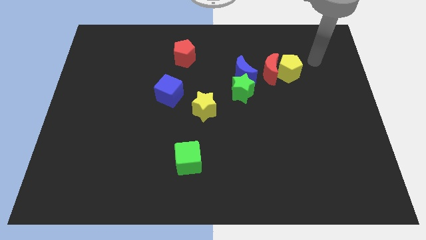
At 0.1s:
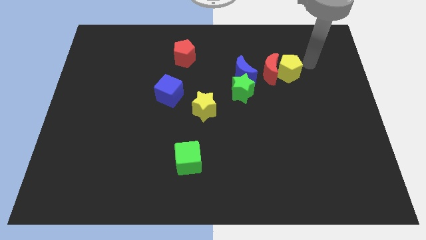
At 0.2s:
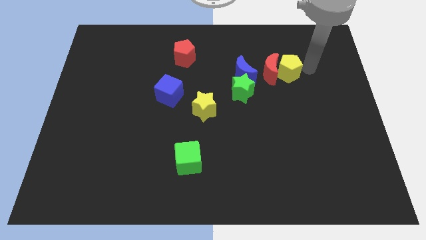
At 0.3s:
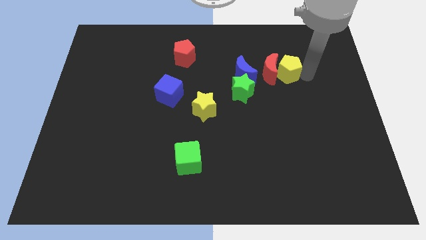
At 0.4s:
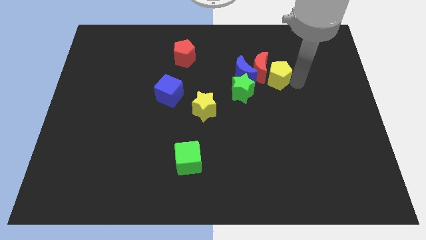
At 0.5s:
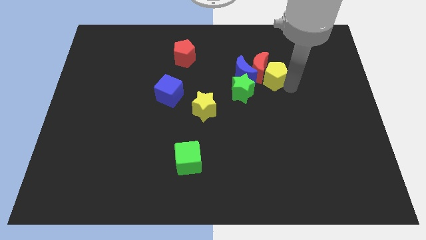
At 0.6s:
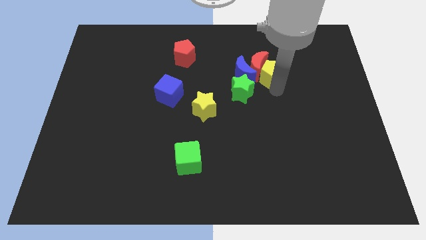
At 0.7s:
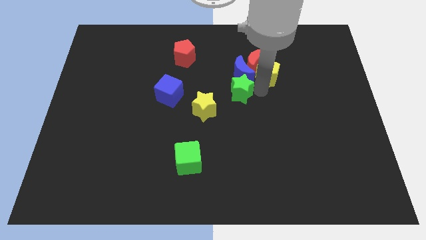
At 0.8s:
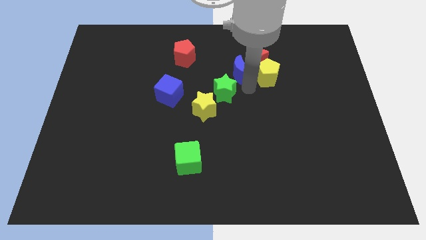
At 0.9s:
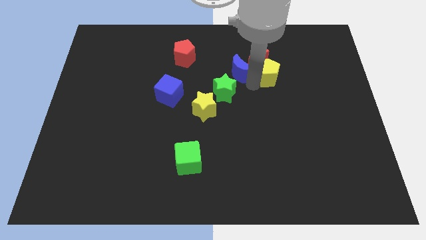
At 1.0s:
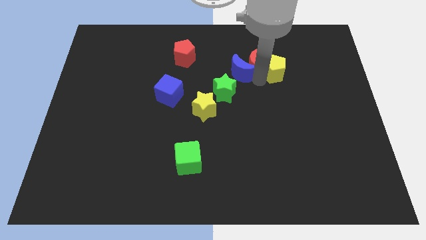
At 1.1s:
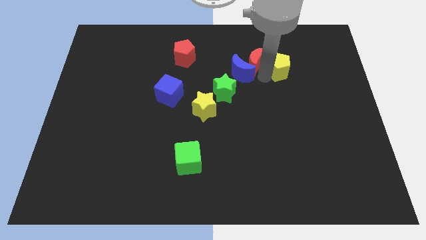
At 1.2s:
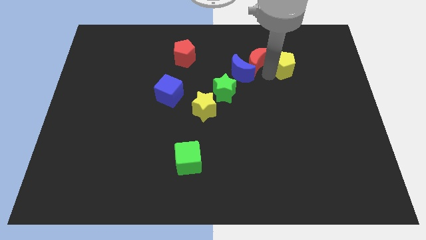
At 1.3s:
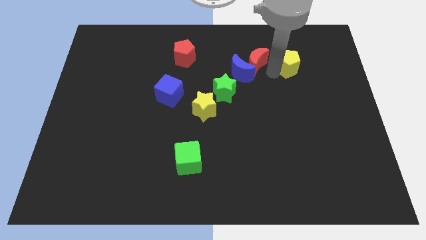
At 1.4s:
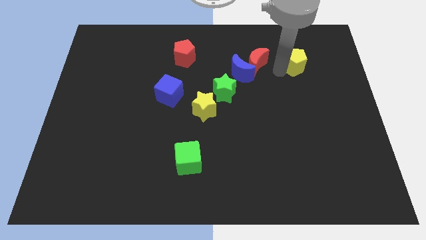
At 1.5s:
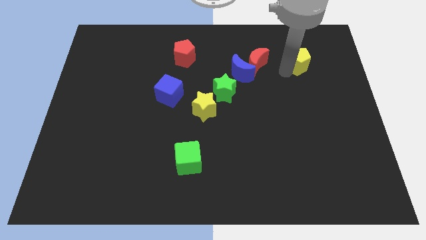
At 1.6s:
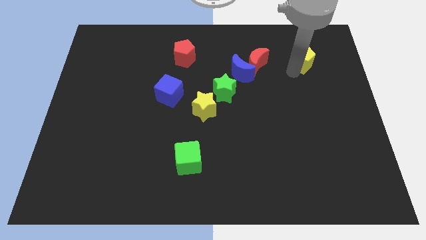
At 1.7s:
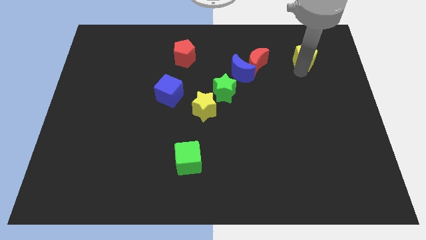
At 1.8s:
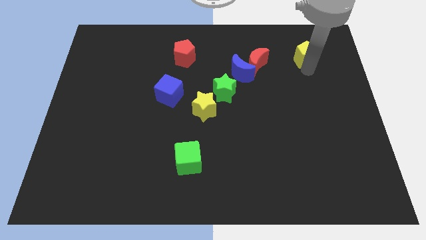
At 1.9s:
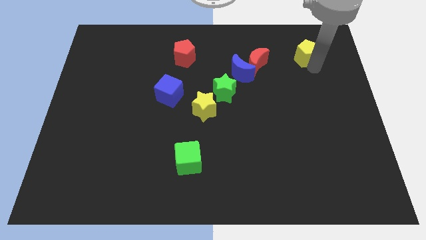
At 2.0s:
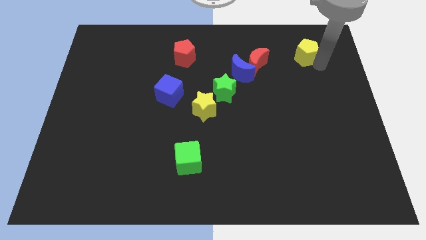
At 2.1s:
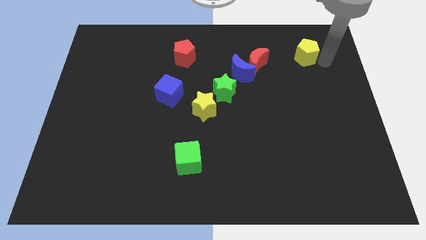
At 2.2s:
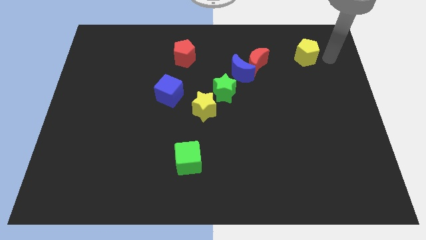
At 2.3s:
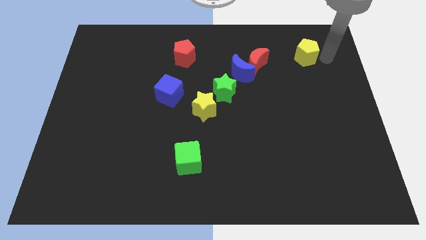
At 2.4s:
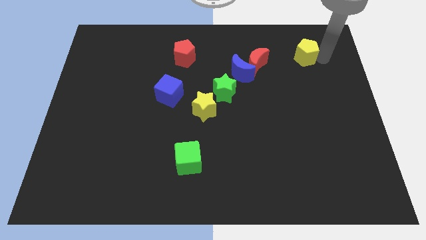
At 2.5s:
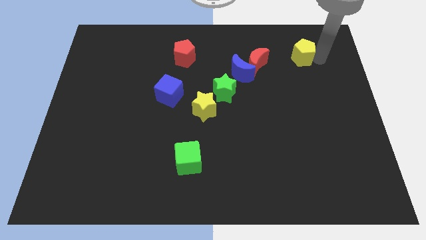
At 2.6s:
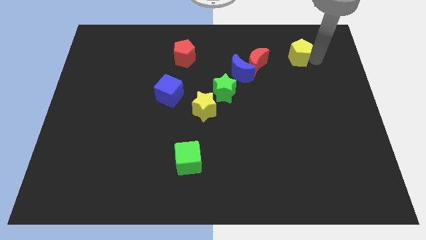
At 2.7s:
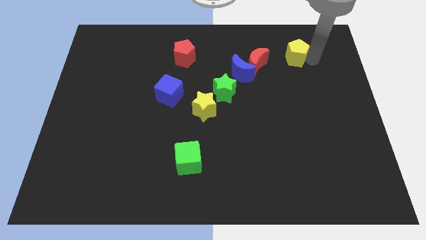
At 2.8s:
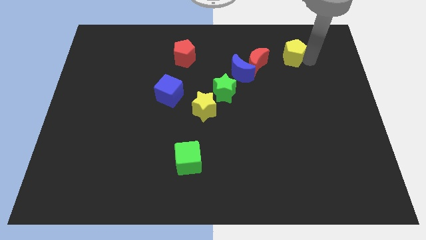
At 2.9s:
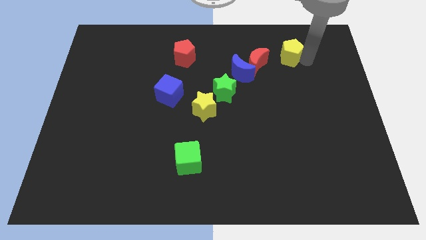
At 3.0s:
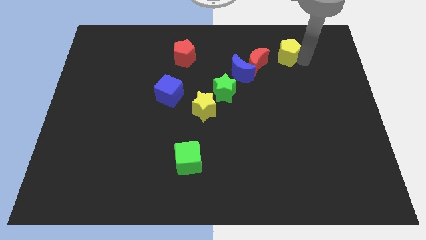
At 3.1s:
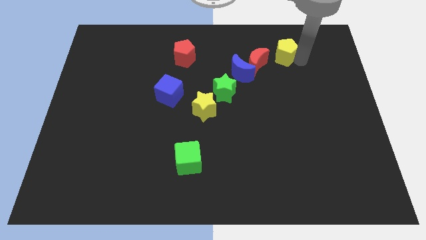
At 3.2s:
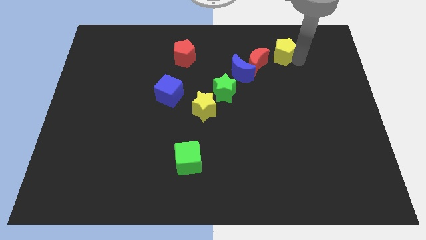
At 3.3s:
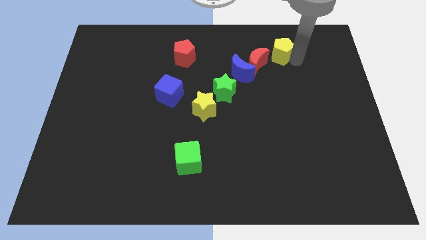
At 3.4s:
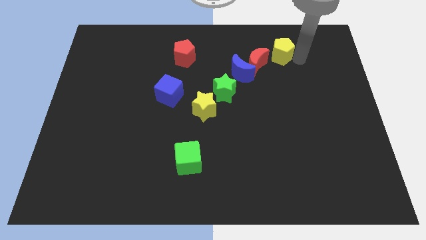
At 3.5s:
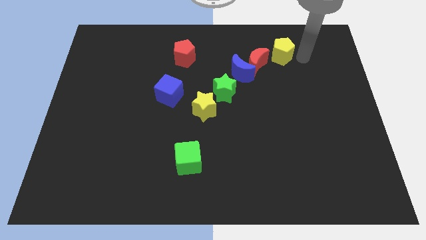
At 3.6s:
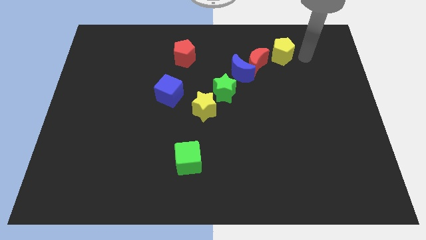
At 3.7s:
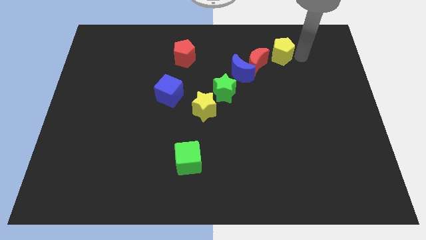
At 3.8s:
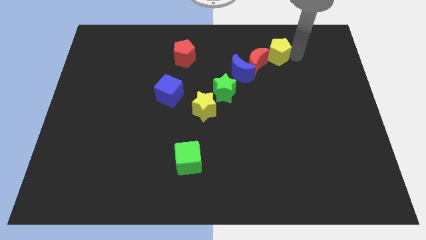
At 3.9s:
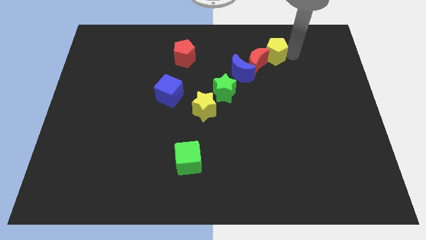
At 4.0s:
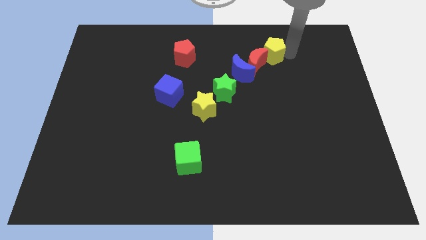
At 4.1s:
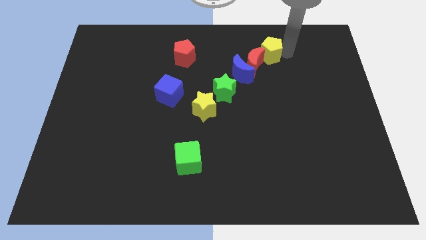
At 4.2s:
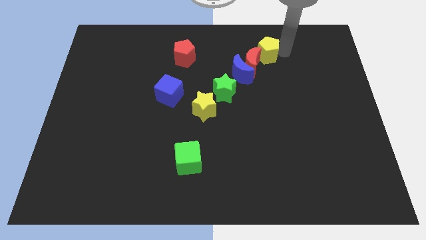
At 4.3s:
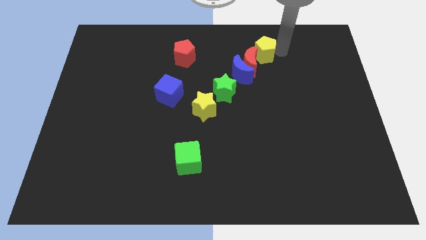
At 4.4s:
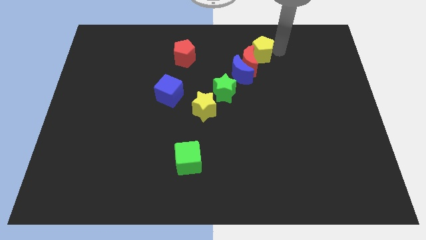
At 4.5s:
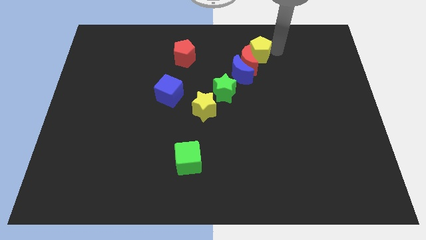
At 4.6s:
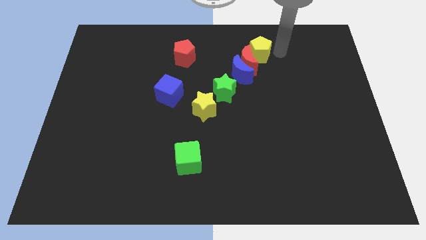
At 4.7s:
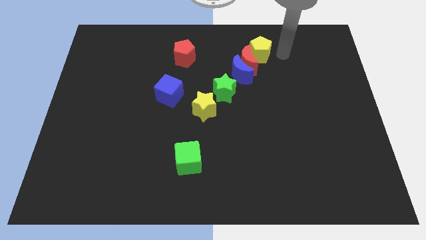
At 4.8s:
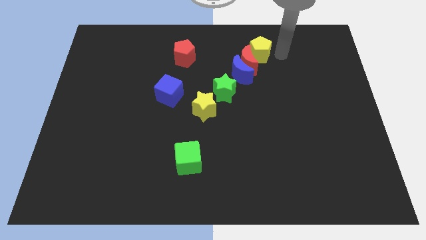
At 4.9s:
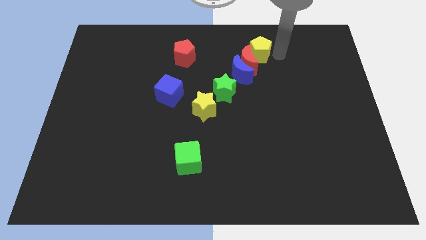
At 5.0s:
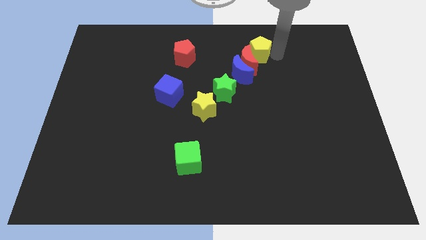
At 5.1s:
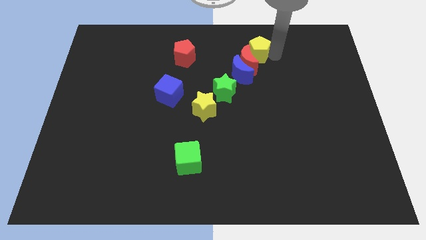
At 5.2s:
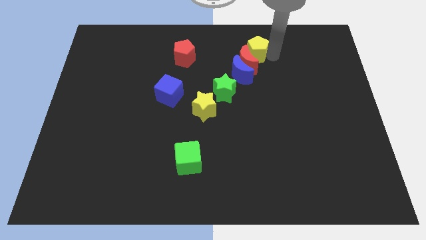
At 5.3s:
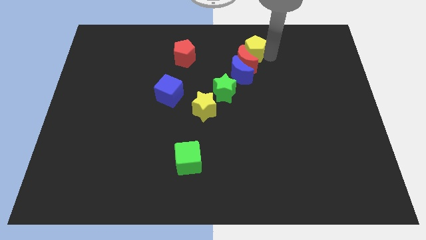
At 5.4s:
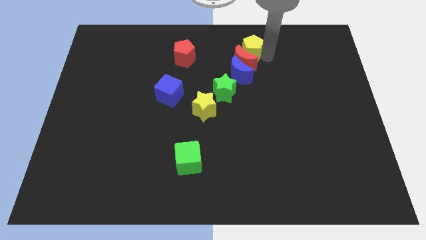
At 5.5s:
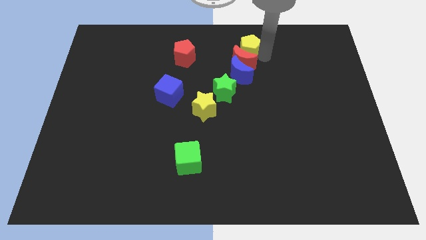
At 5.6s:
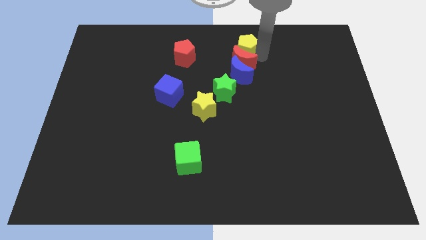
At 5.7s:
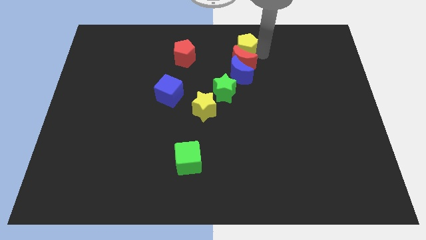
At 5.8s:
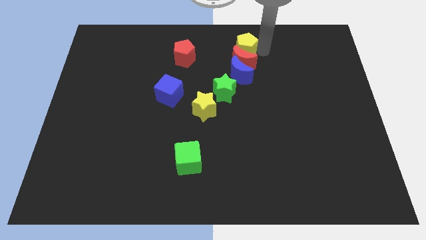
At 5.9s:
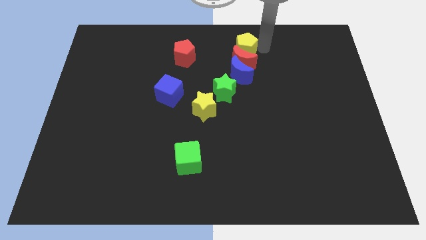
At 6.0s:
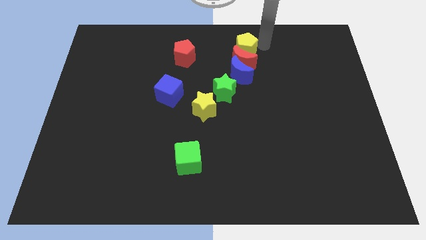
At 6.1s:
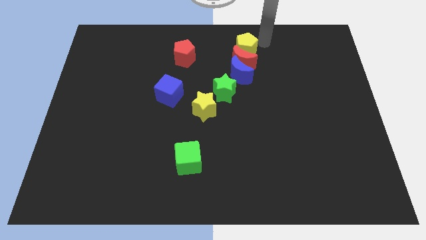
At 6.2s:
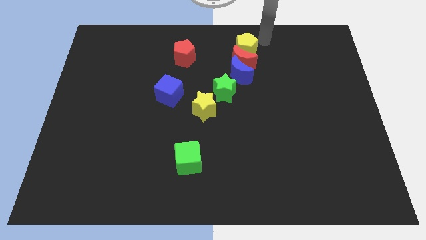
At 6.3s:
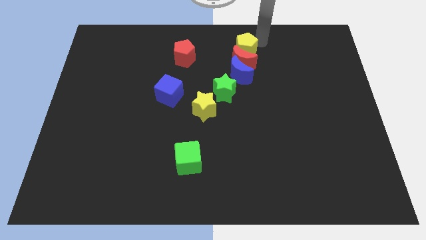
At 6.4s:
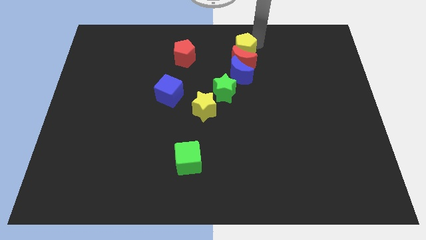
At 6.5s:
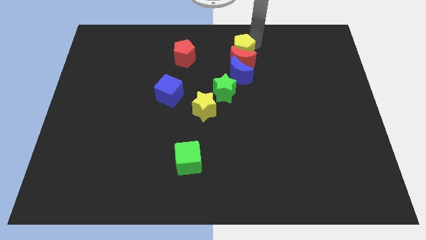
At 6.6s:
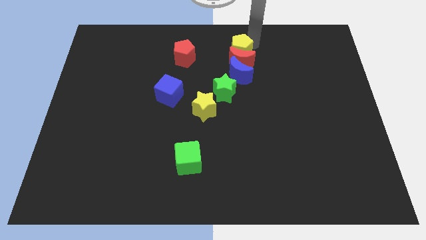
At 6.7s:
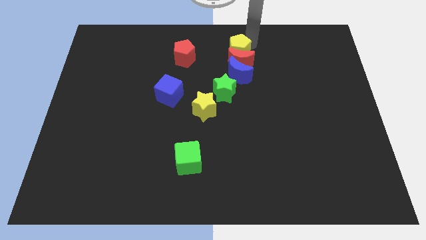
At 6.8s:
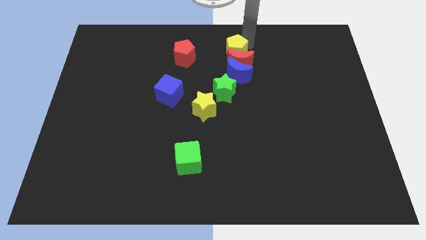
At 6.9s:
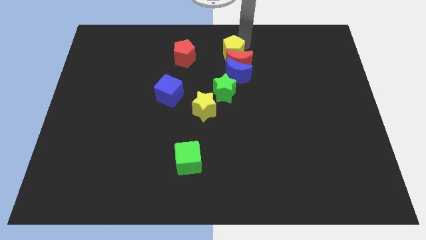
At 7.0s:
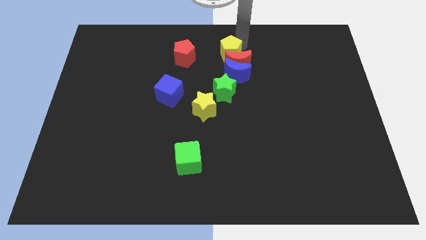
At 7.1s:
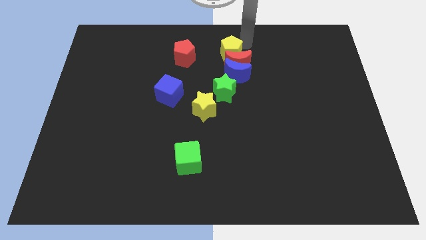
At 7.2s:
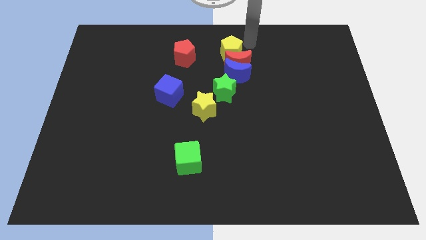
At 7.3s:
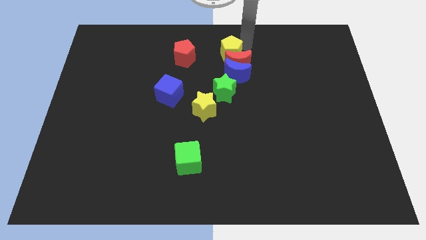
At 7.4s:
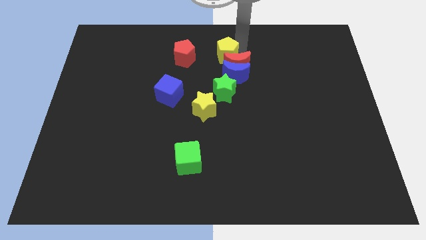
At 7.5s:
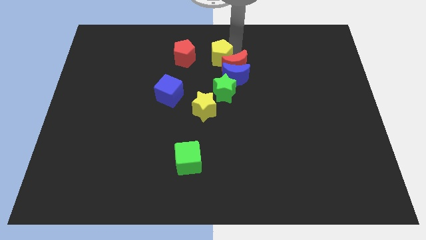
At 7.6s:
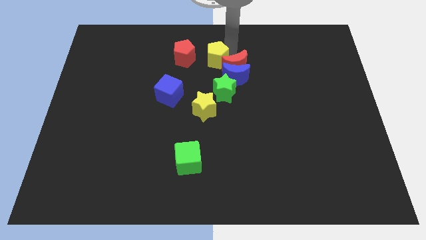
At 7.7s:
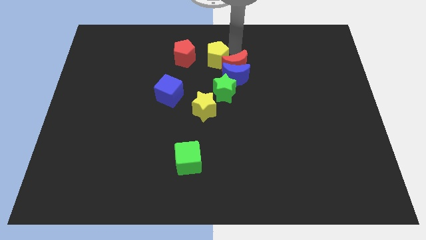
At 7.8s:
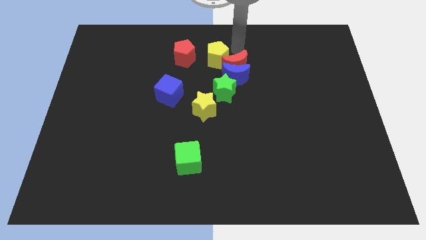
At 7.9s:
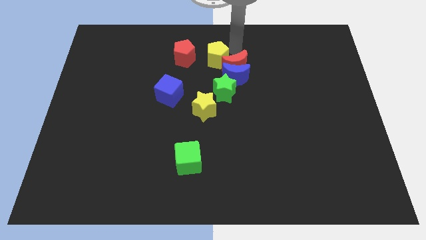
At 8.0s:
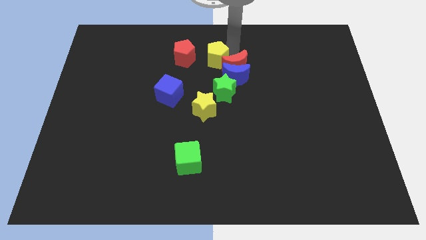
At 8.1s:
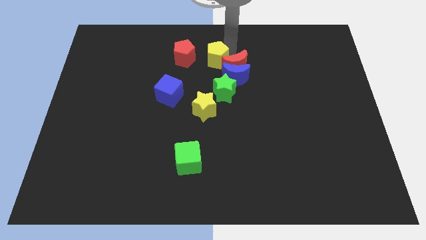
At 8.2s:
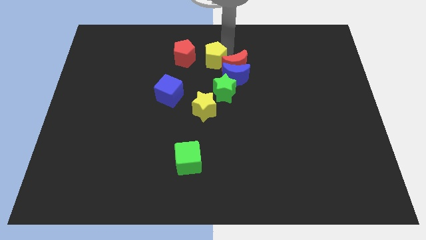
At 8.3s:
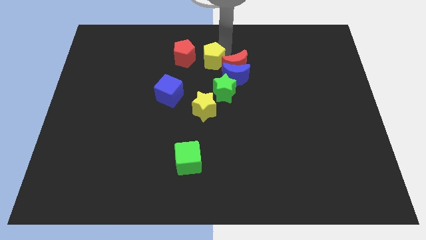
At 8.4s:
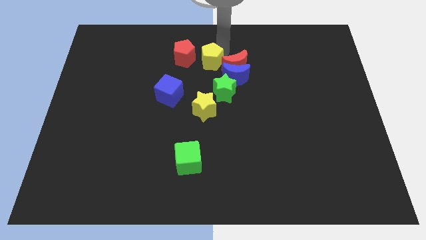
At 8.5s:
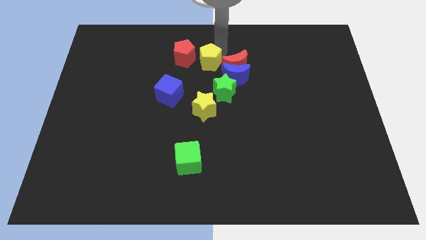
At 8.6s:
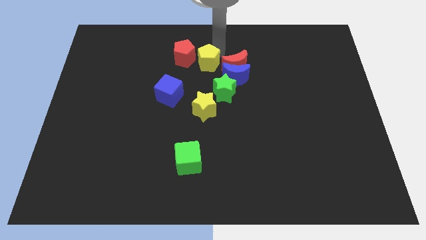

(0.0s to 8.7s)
push the yellow pentagon to the left
